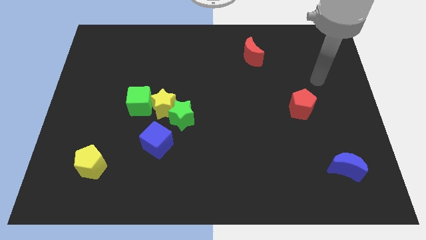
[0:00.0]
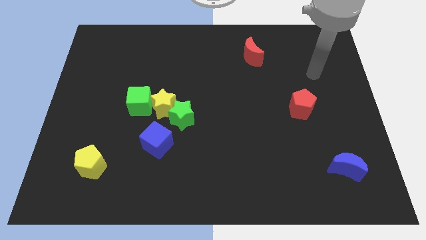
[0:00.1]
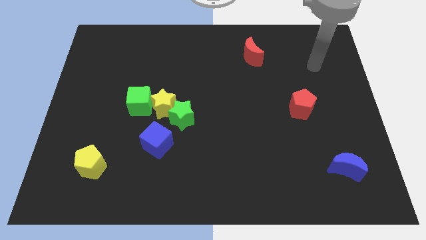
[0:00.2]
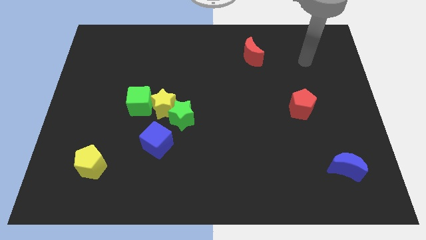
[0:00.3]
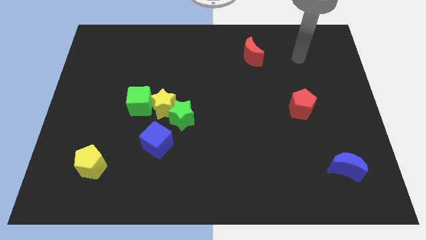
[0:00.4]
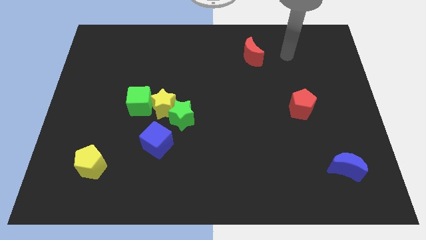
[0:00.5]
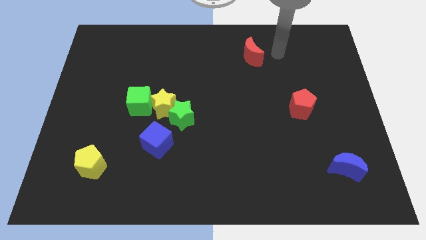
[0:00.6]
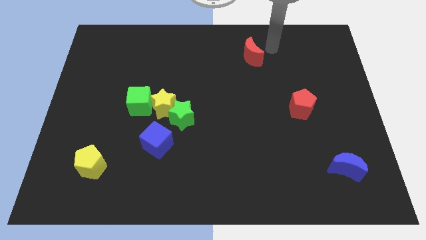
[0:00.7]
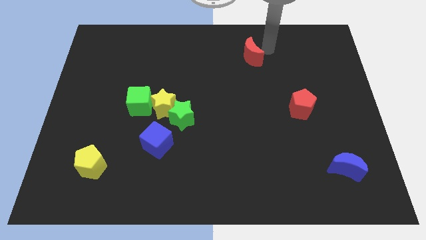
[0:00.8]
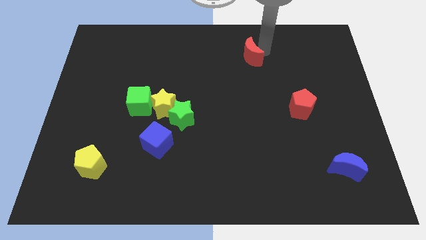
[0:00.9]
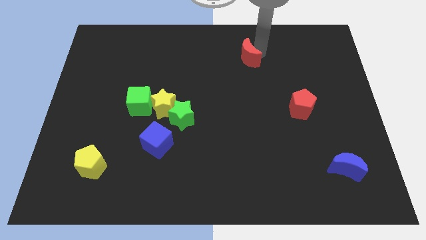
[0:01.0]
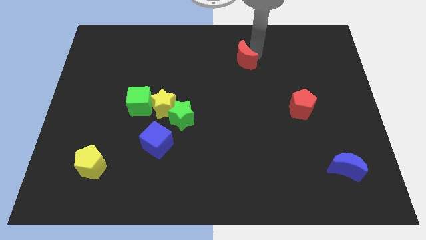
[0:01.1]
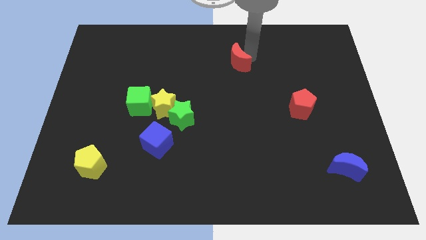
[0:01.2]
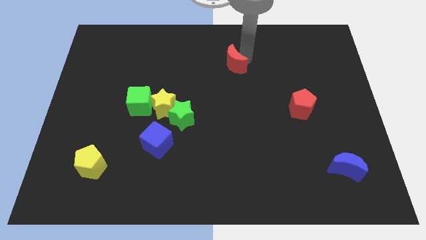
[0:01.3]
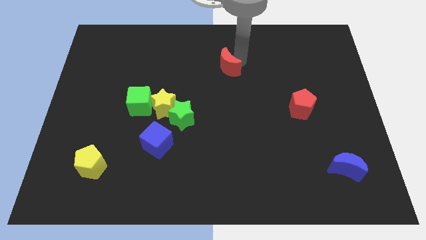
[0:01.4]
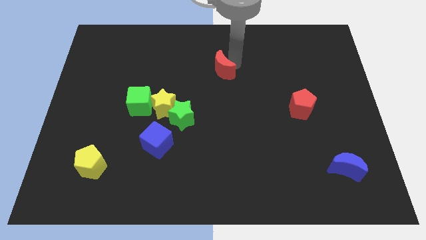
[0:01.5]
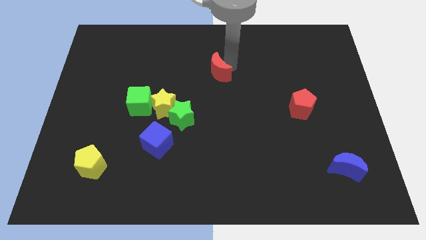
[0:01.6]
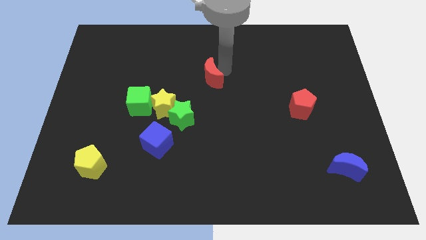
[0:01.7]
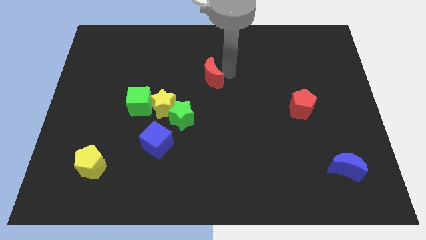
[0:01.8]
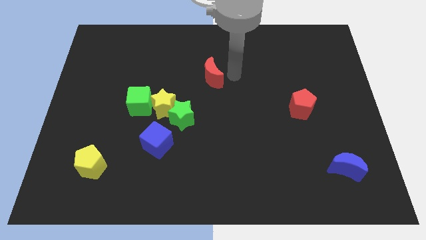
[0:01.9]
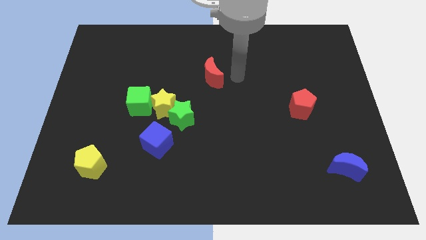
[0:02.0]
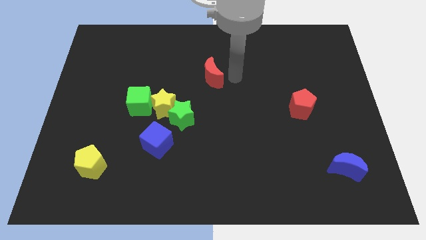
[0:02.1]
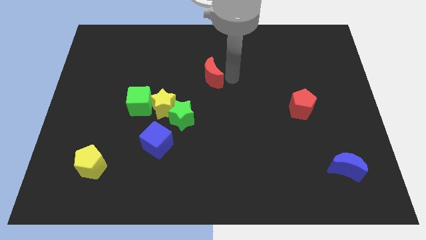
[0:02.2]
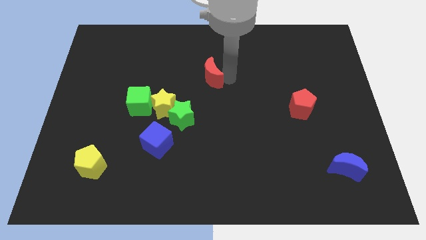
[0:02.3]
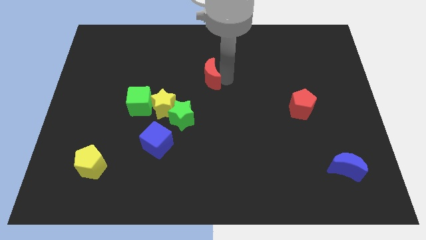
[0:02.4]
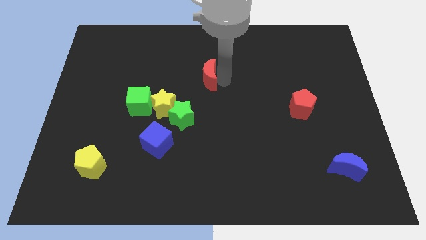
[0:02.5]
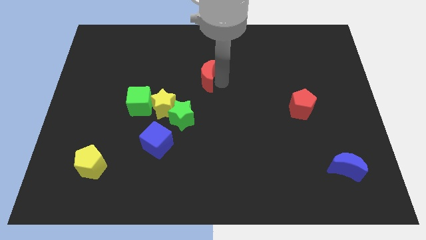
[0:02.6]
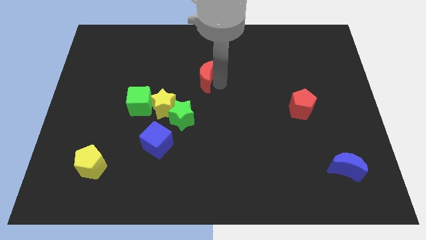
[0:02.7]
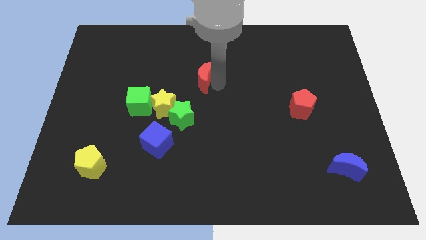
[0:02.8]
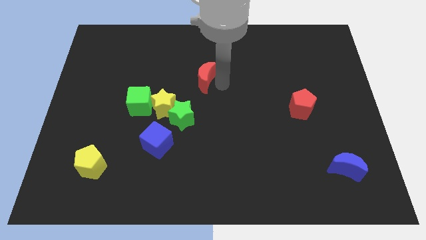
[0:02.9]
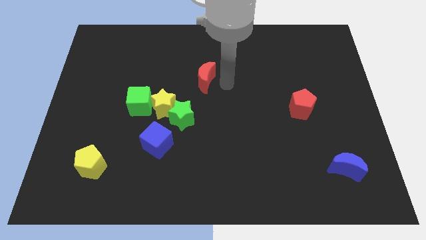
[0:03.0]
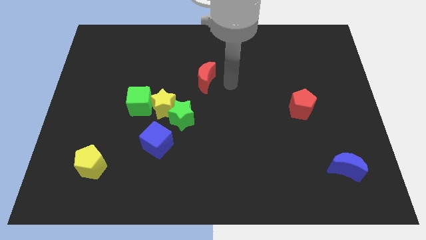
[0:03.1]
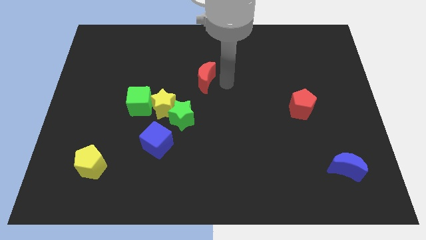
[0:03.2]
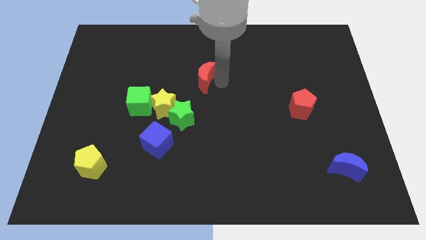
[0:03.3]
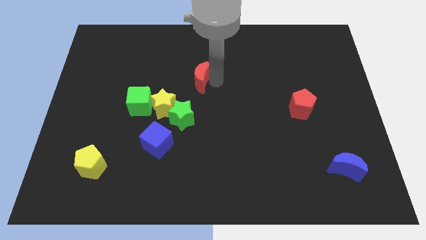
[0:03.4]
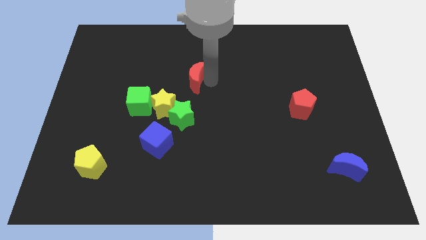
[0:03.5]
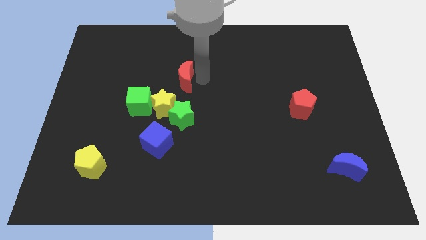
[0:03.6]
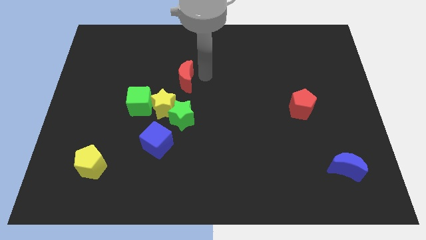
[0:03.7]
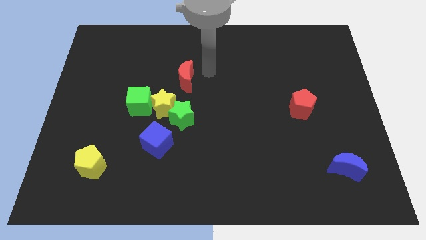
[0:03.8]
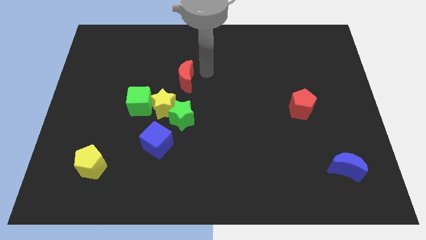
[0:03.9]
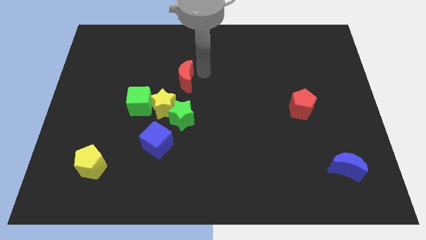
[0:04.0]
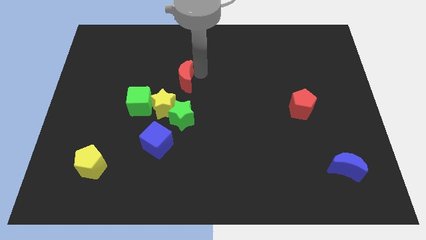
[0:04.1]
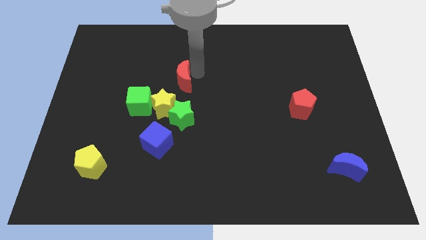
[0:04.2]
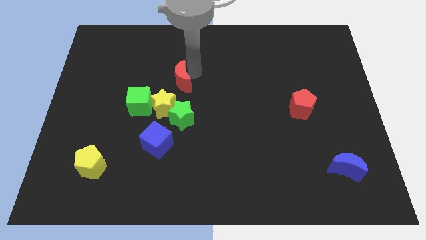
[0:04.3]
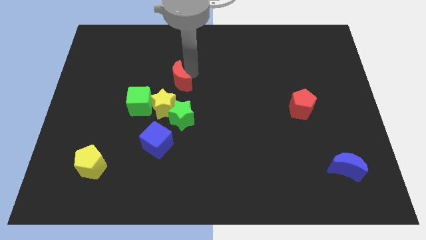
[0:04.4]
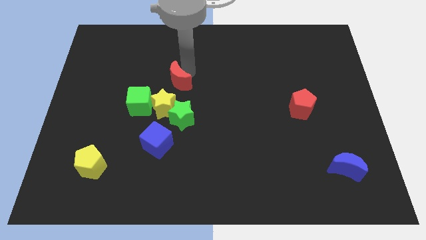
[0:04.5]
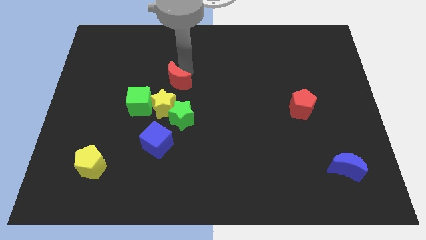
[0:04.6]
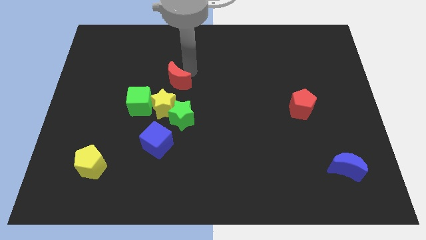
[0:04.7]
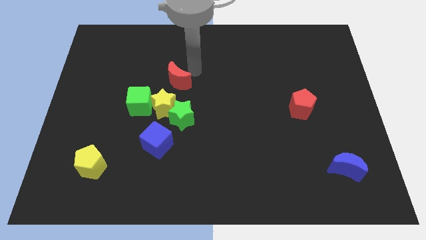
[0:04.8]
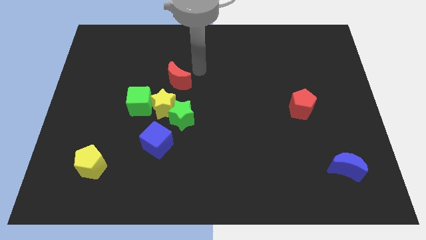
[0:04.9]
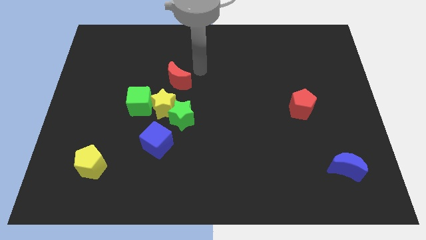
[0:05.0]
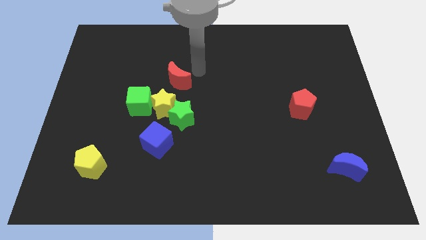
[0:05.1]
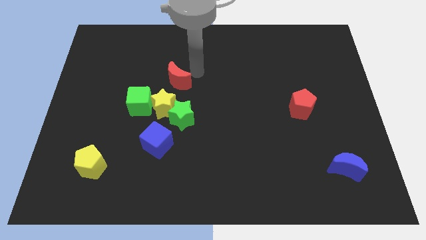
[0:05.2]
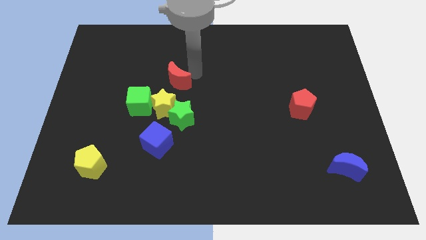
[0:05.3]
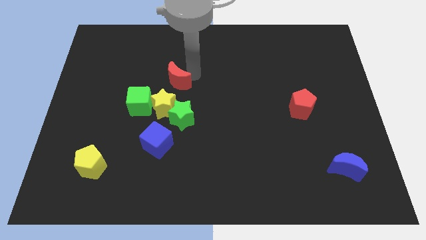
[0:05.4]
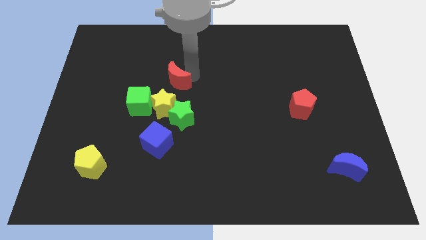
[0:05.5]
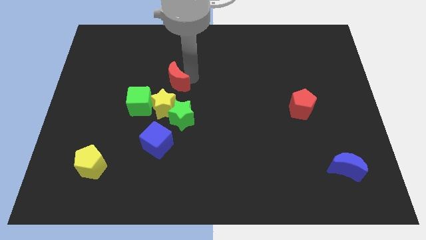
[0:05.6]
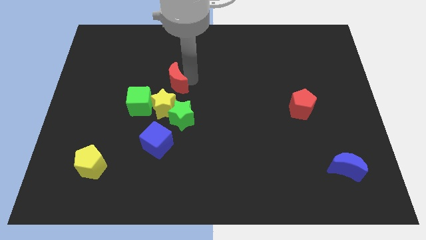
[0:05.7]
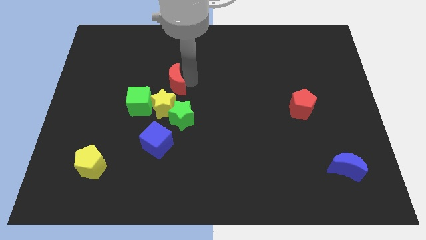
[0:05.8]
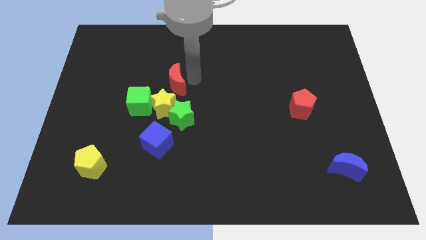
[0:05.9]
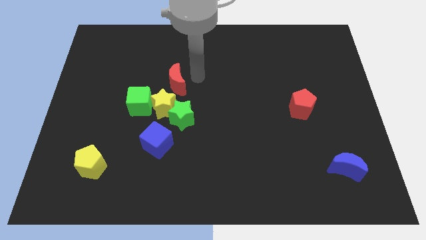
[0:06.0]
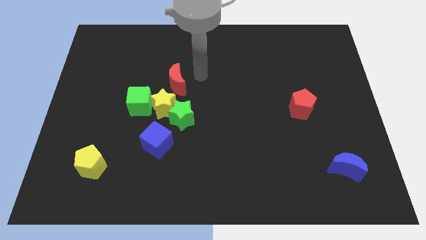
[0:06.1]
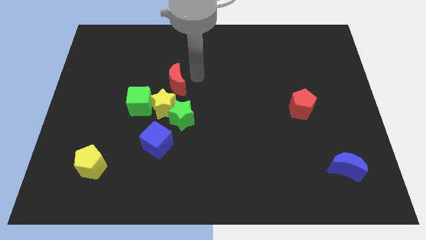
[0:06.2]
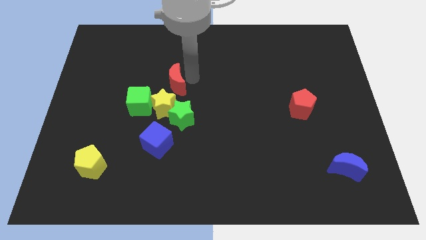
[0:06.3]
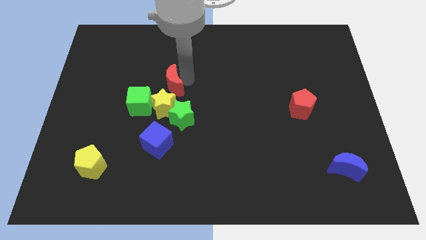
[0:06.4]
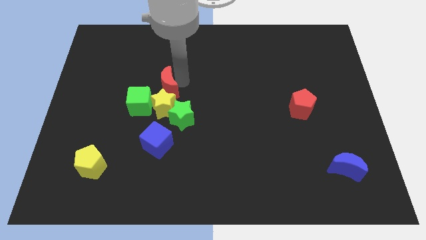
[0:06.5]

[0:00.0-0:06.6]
slide the red moon diagonally up and to the left of the yellow star

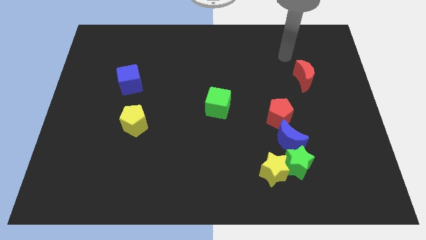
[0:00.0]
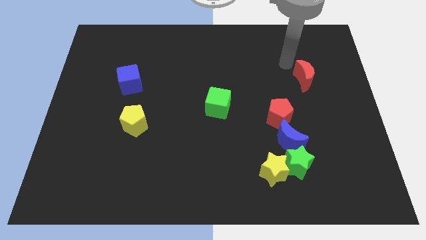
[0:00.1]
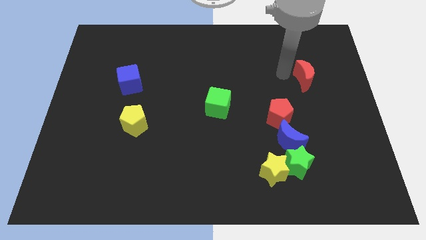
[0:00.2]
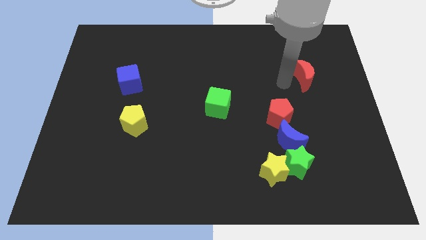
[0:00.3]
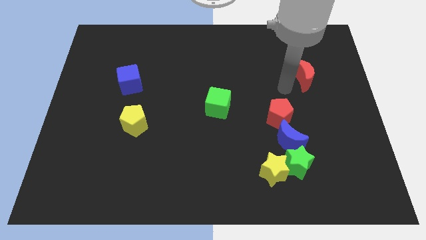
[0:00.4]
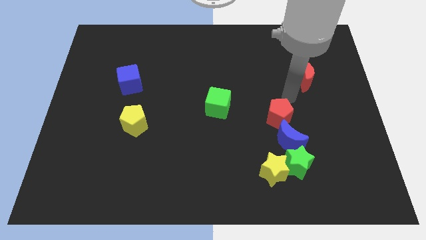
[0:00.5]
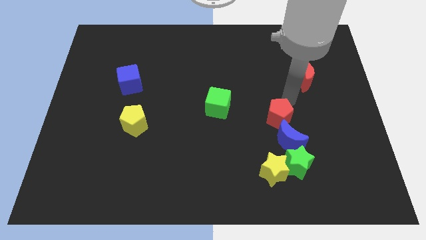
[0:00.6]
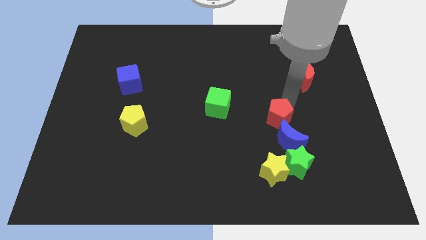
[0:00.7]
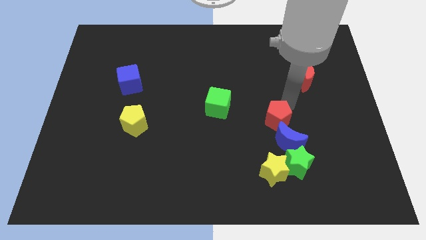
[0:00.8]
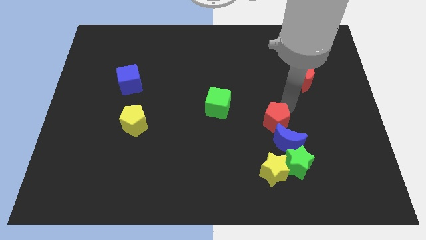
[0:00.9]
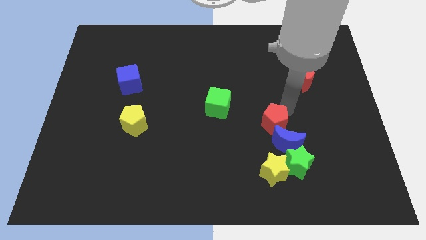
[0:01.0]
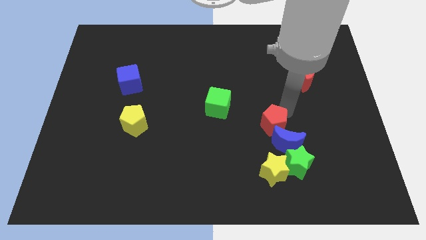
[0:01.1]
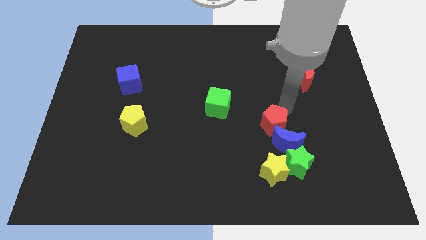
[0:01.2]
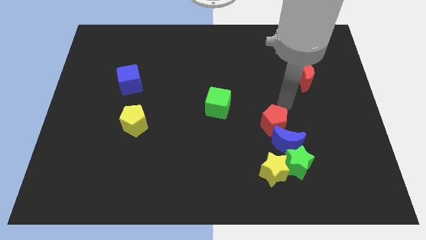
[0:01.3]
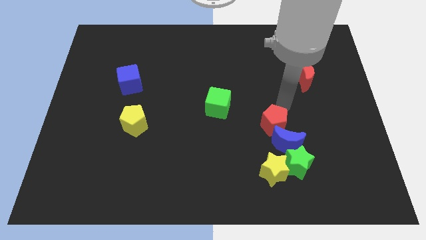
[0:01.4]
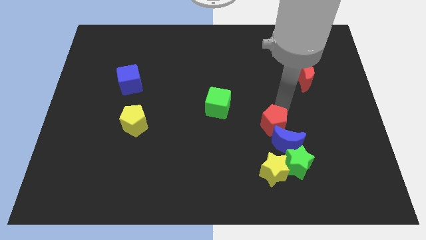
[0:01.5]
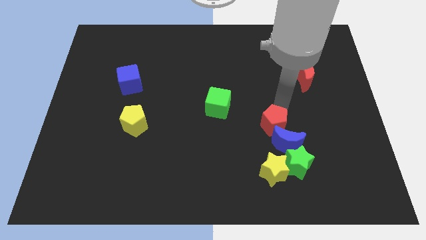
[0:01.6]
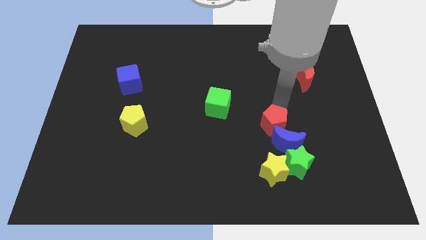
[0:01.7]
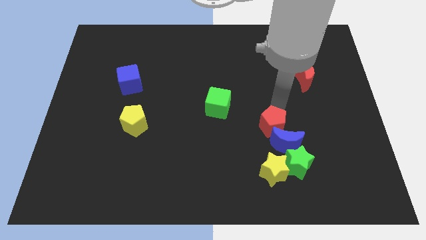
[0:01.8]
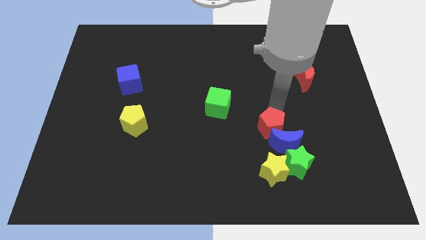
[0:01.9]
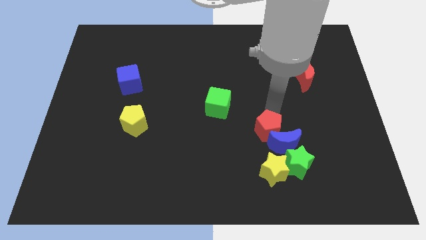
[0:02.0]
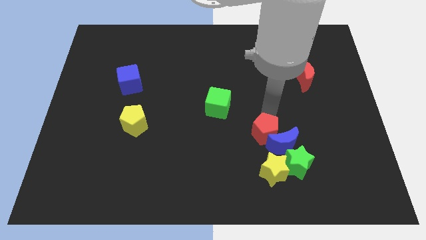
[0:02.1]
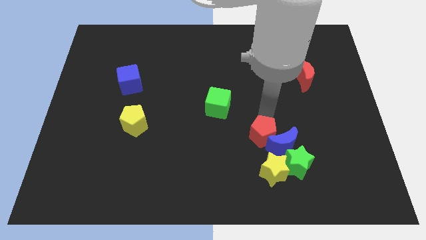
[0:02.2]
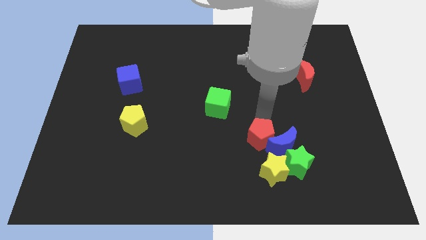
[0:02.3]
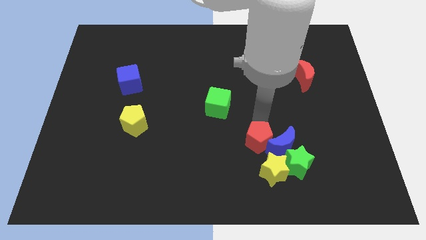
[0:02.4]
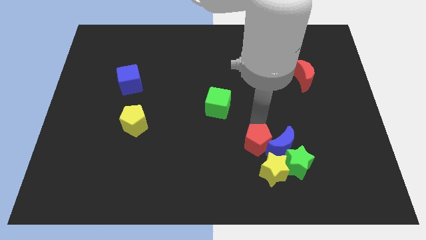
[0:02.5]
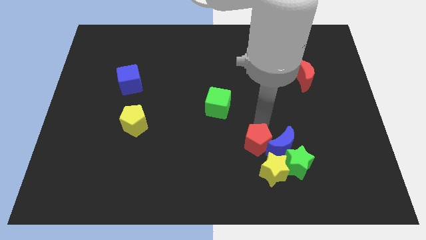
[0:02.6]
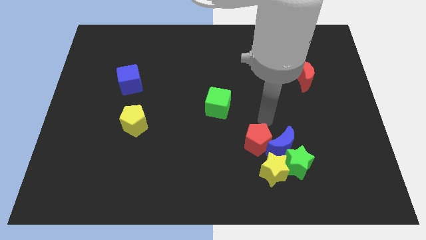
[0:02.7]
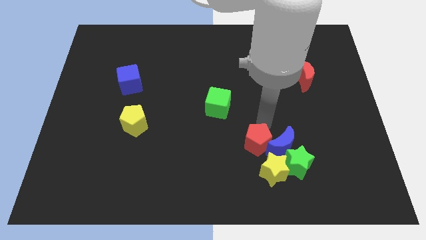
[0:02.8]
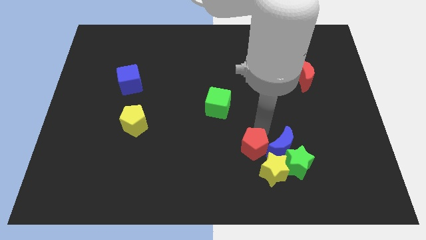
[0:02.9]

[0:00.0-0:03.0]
push the red pentagon to the left side of the green star
